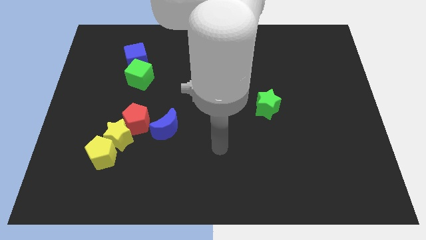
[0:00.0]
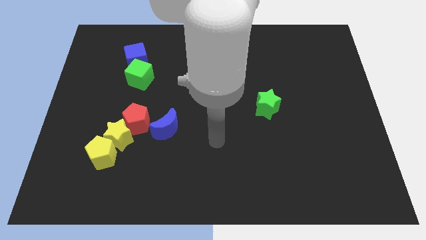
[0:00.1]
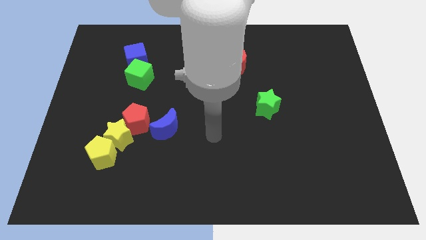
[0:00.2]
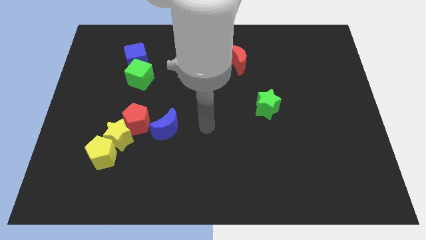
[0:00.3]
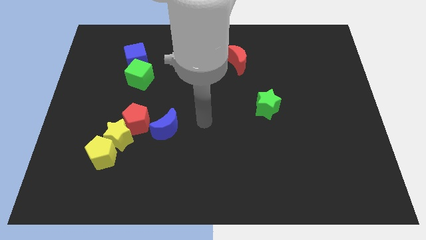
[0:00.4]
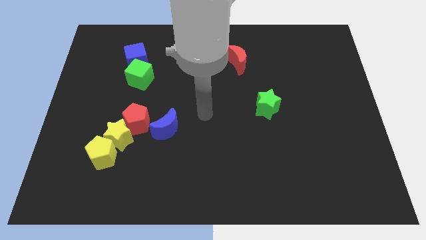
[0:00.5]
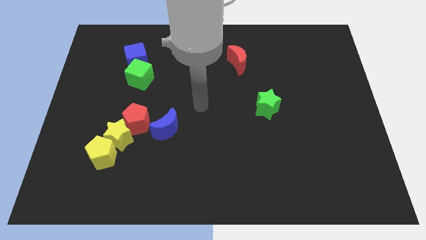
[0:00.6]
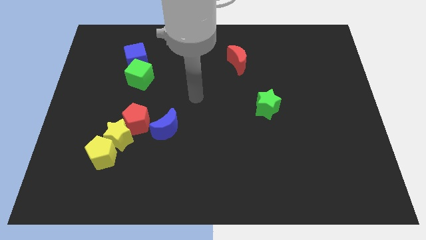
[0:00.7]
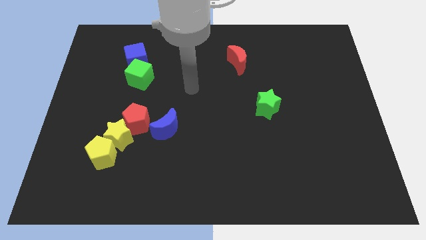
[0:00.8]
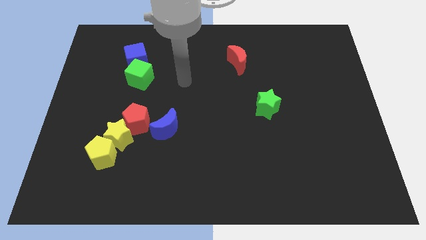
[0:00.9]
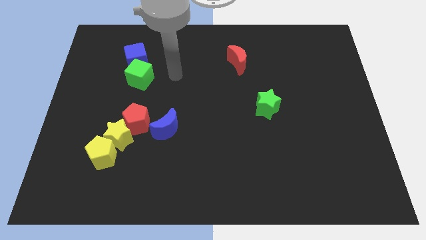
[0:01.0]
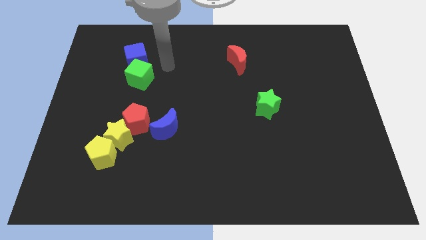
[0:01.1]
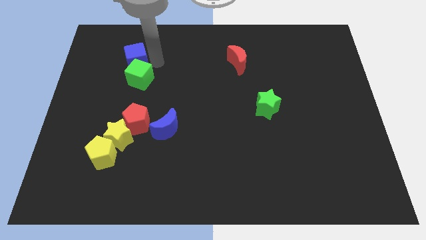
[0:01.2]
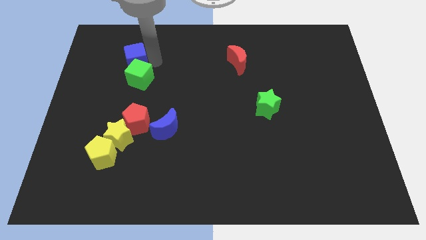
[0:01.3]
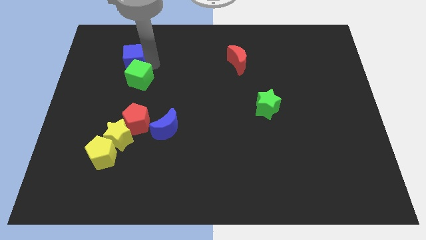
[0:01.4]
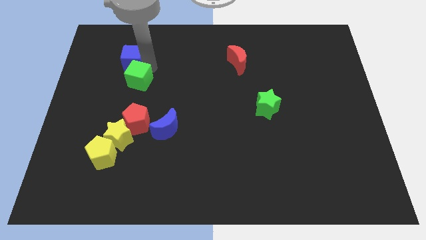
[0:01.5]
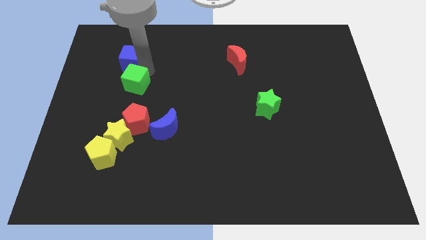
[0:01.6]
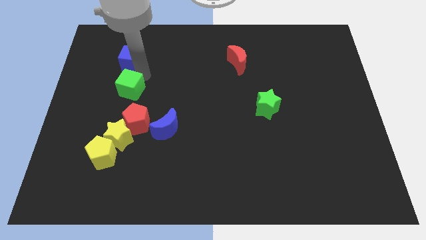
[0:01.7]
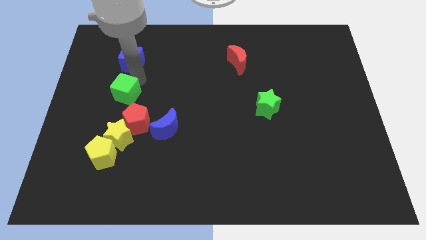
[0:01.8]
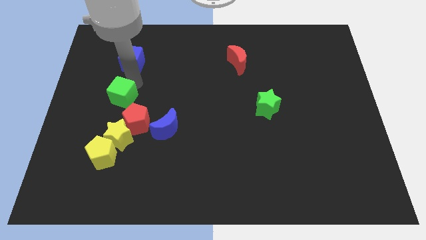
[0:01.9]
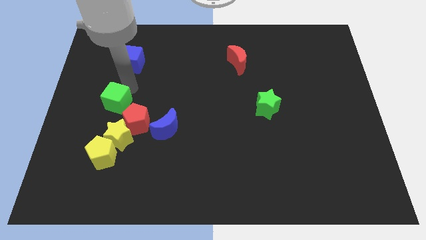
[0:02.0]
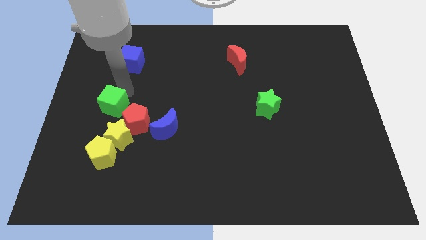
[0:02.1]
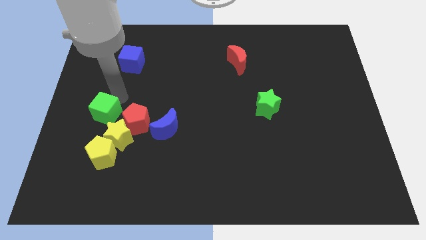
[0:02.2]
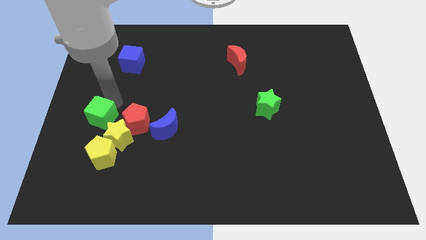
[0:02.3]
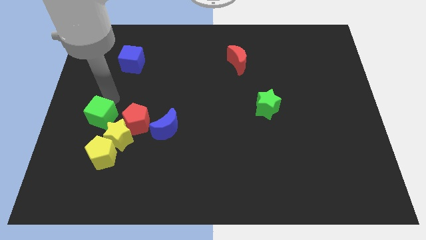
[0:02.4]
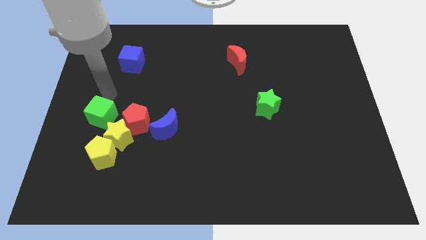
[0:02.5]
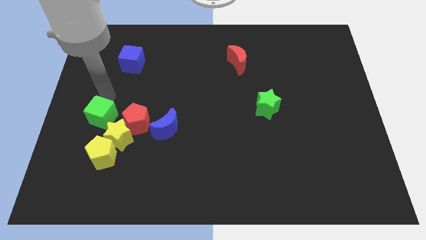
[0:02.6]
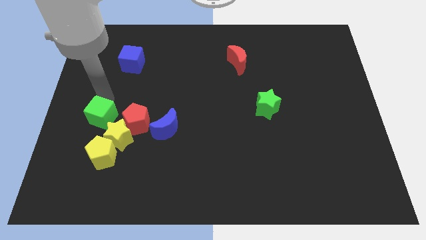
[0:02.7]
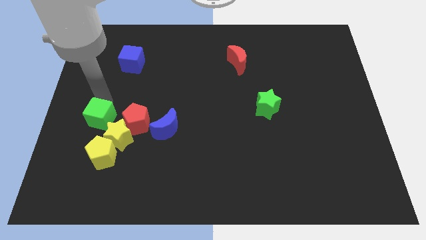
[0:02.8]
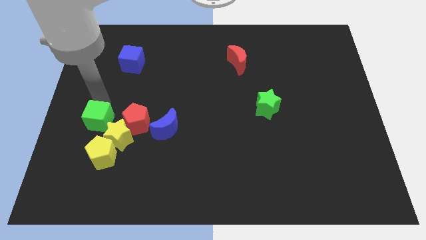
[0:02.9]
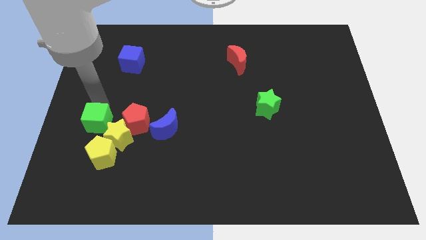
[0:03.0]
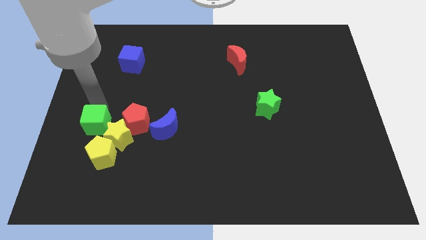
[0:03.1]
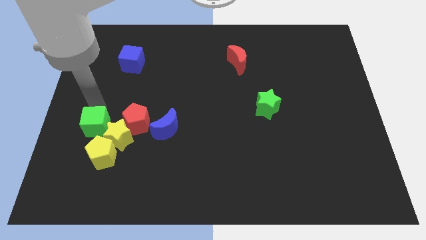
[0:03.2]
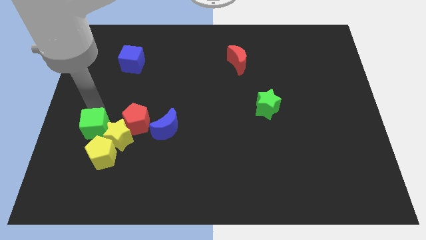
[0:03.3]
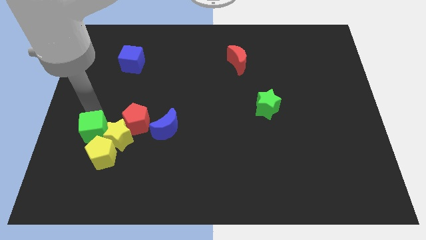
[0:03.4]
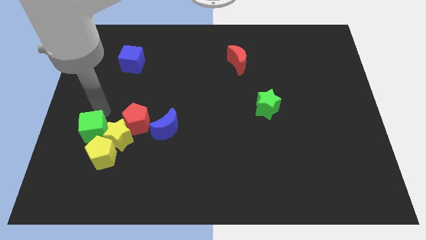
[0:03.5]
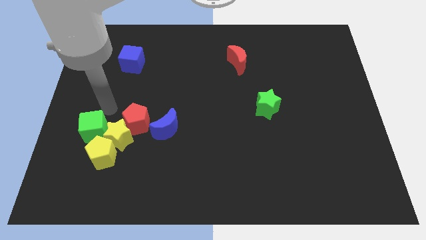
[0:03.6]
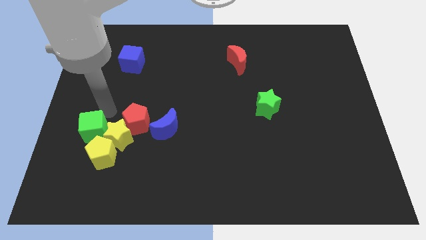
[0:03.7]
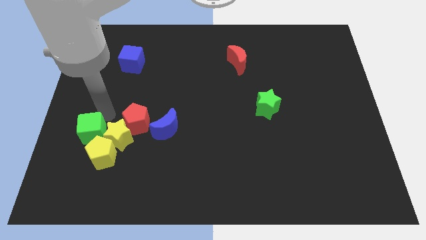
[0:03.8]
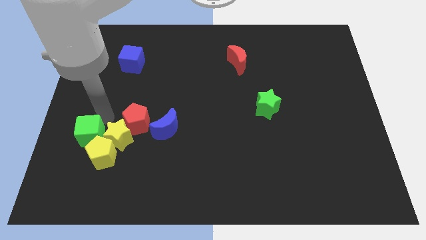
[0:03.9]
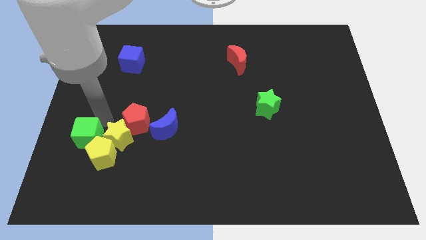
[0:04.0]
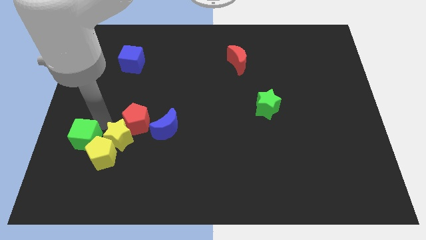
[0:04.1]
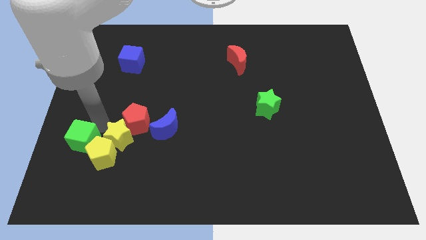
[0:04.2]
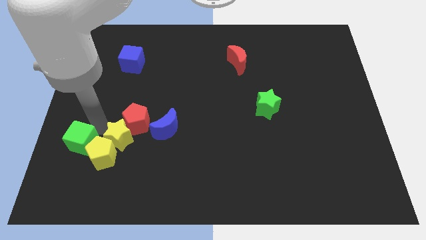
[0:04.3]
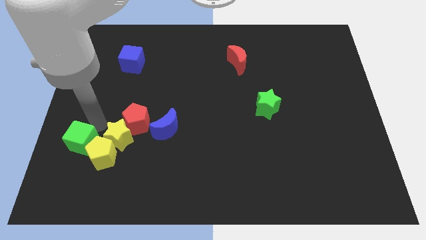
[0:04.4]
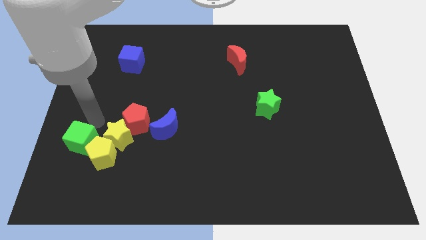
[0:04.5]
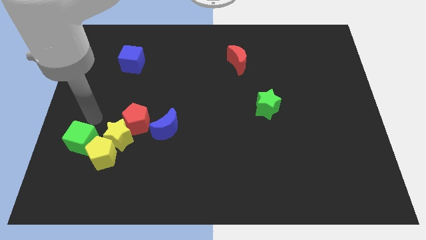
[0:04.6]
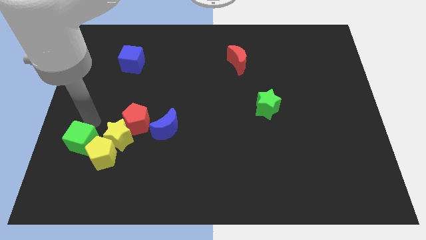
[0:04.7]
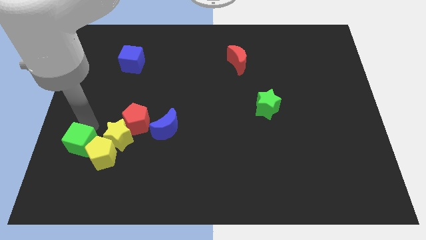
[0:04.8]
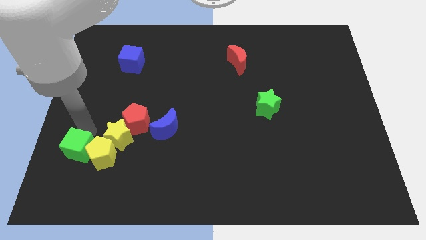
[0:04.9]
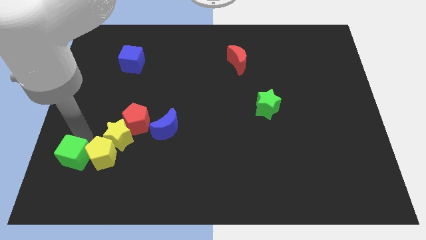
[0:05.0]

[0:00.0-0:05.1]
put the green cube diagonally down and to the left of the yellow pentagon

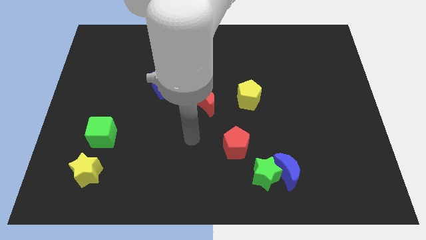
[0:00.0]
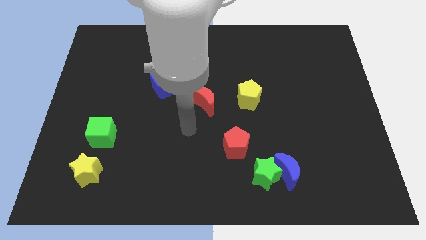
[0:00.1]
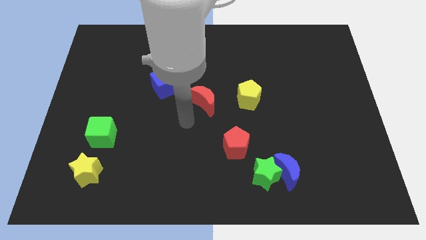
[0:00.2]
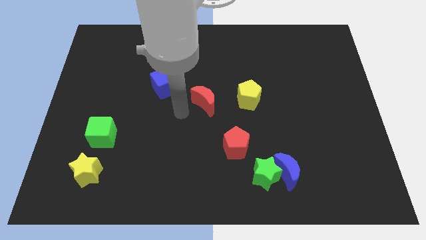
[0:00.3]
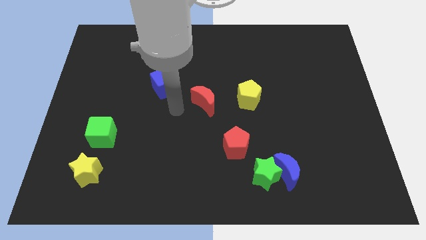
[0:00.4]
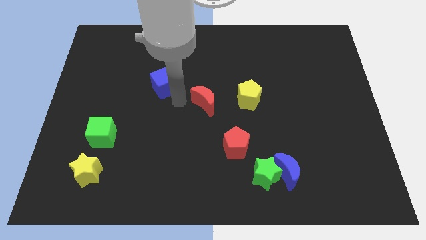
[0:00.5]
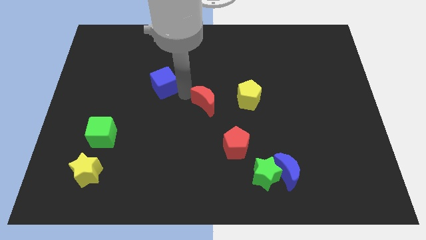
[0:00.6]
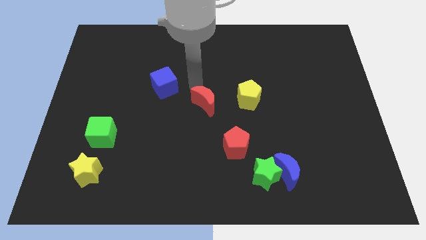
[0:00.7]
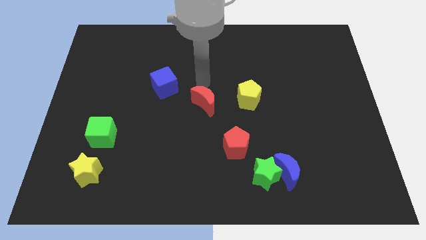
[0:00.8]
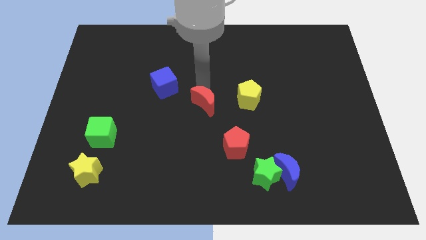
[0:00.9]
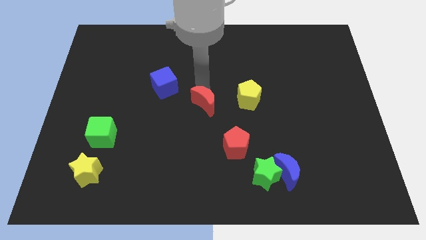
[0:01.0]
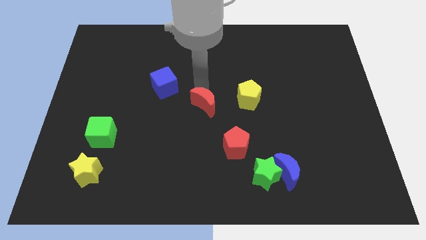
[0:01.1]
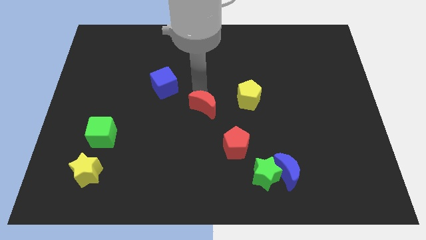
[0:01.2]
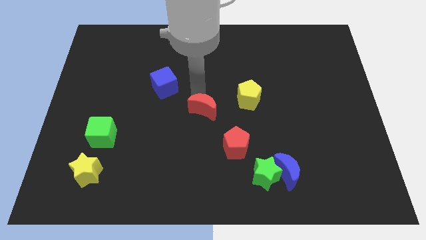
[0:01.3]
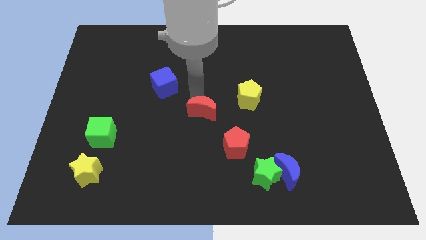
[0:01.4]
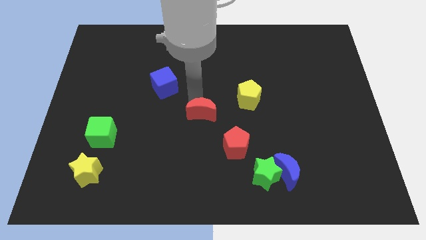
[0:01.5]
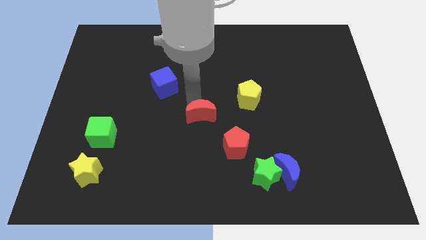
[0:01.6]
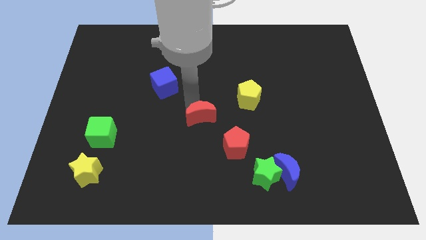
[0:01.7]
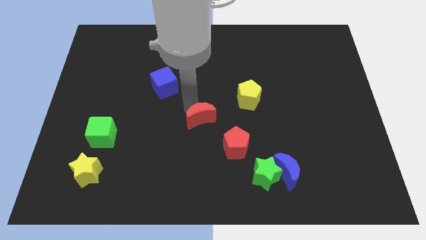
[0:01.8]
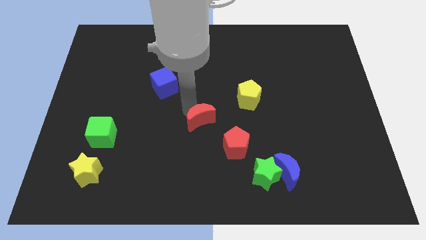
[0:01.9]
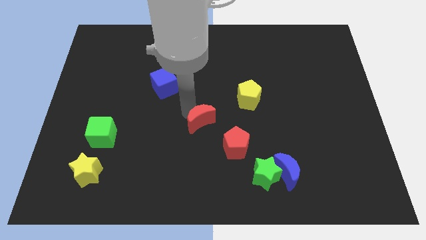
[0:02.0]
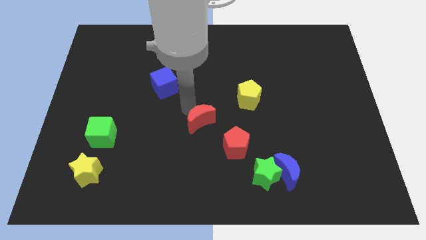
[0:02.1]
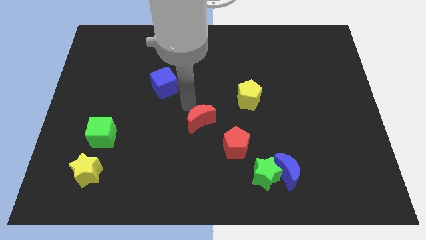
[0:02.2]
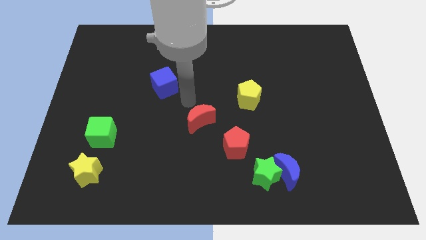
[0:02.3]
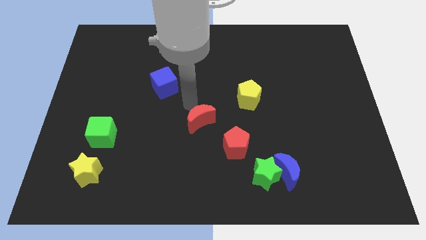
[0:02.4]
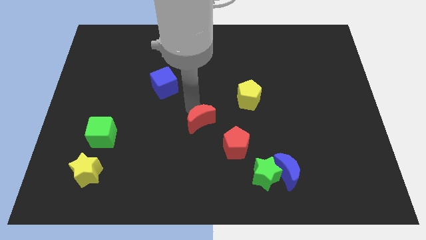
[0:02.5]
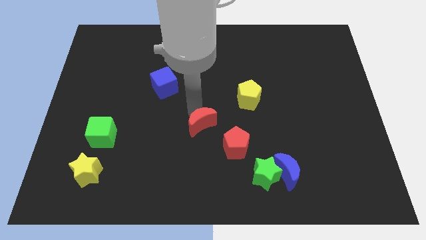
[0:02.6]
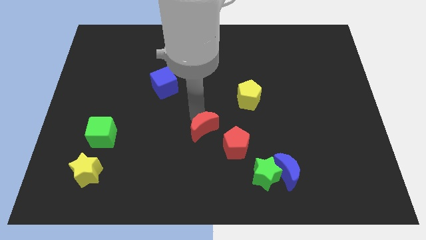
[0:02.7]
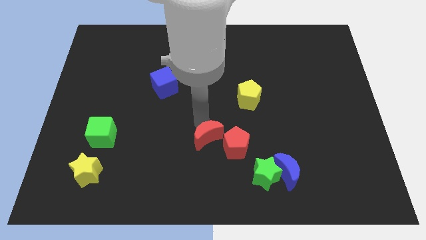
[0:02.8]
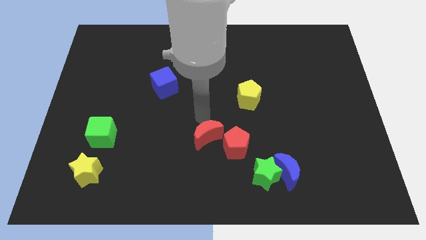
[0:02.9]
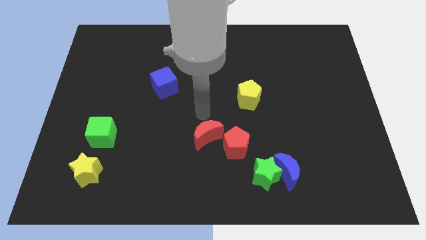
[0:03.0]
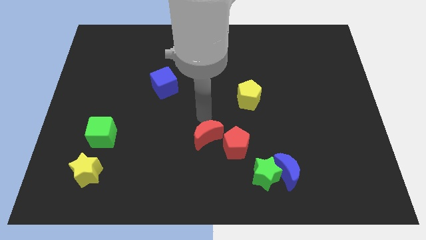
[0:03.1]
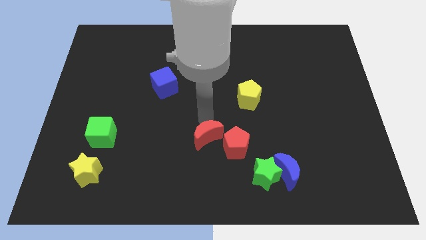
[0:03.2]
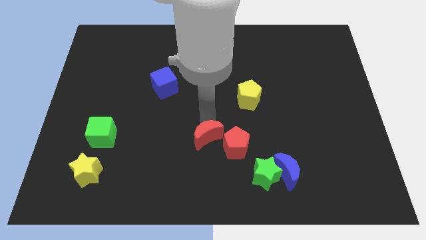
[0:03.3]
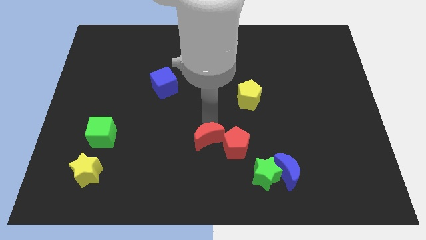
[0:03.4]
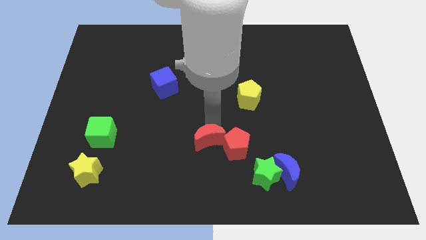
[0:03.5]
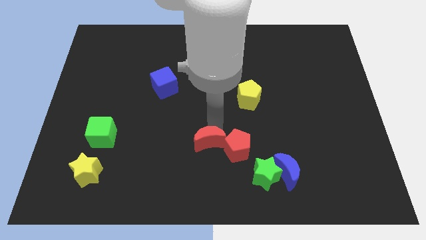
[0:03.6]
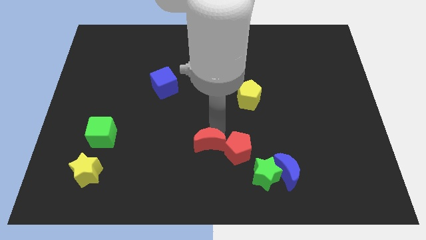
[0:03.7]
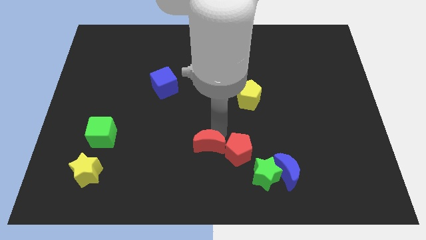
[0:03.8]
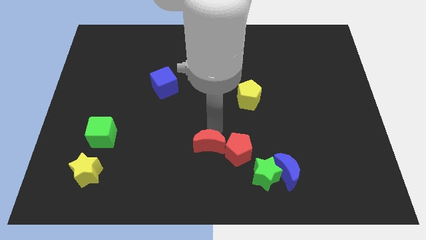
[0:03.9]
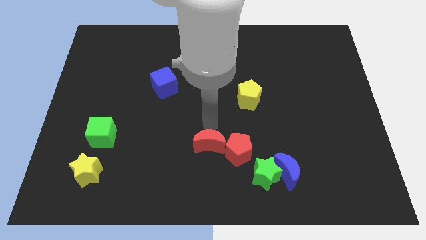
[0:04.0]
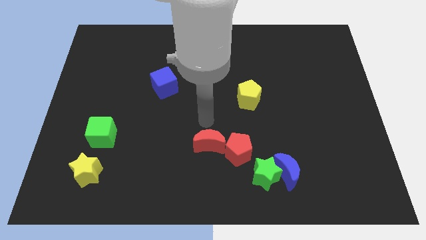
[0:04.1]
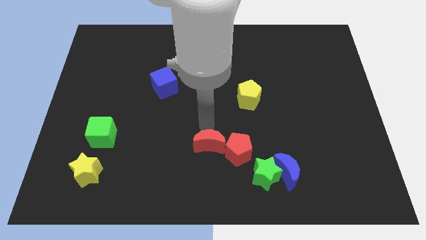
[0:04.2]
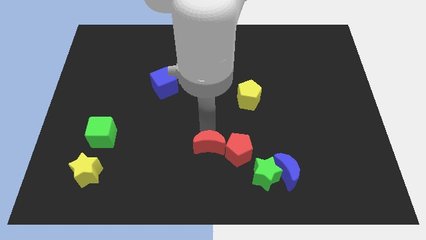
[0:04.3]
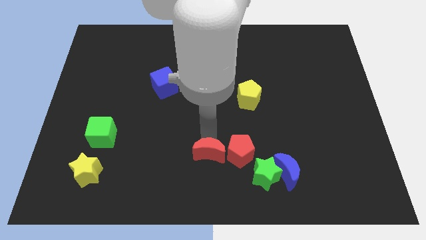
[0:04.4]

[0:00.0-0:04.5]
put the red moon to the bottom left of the red pentagon
